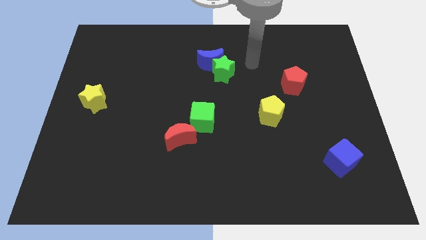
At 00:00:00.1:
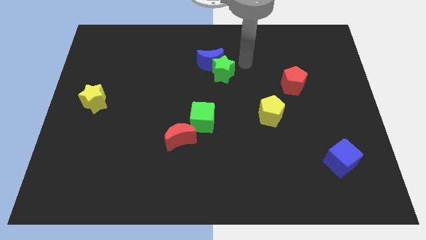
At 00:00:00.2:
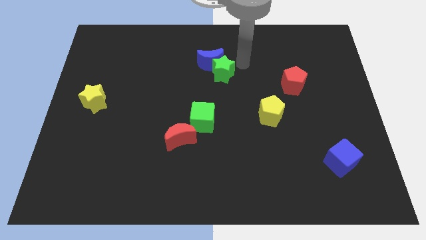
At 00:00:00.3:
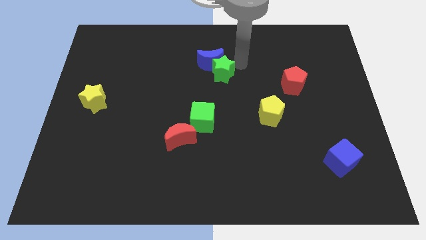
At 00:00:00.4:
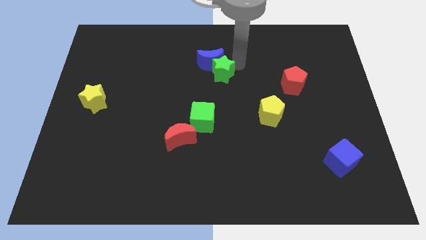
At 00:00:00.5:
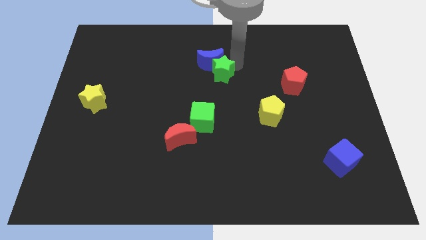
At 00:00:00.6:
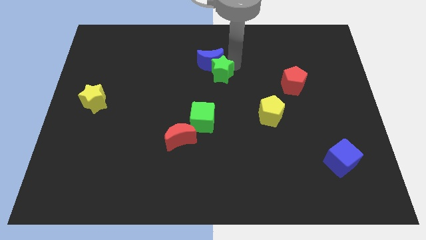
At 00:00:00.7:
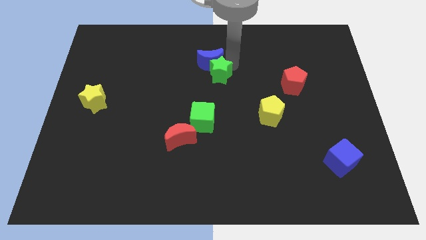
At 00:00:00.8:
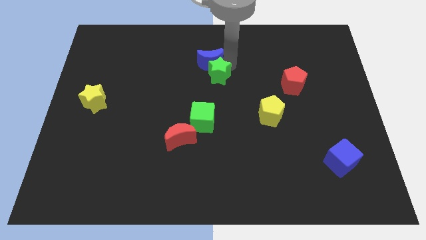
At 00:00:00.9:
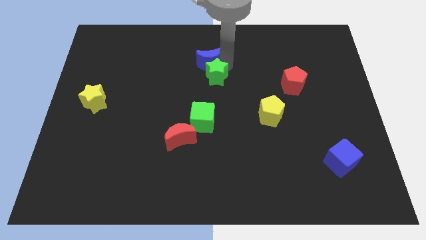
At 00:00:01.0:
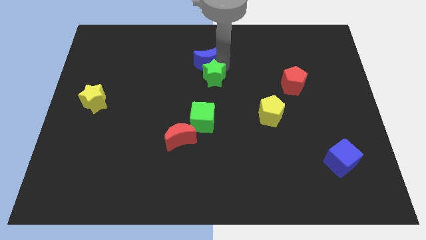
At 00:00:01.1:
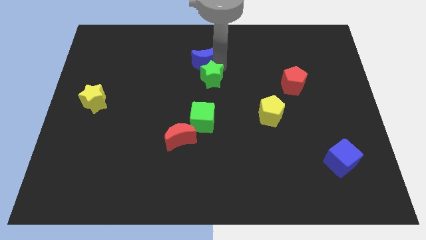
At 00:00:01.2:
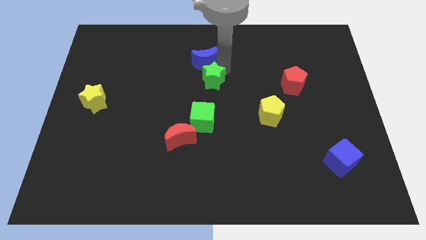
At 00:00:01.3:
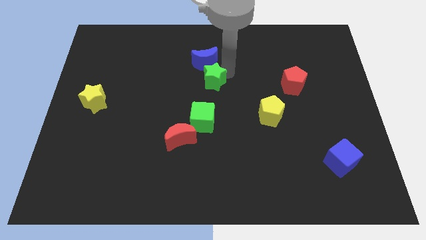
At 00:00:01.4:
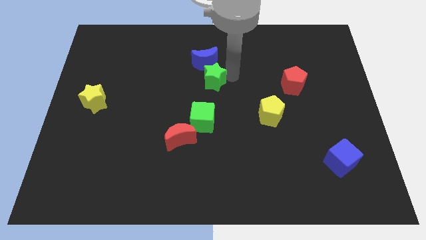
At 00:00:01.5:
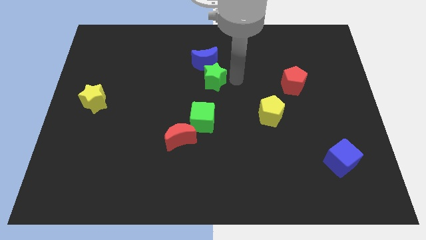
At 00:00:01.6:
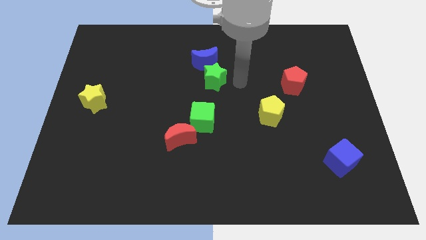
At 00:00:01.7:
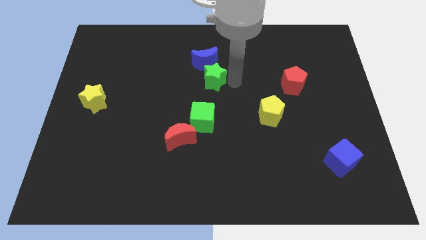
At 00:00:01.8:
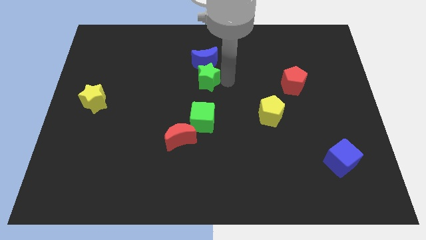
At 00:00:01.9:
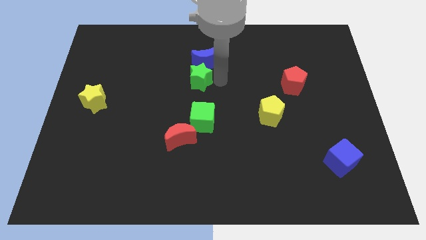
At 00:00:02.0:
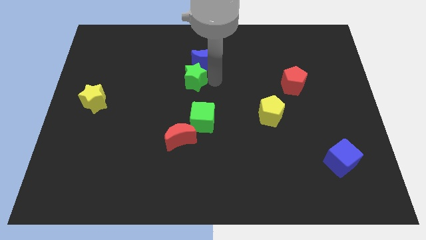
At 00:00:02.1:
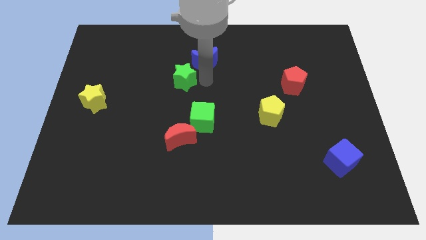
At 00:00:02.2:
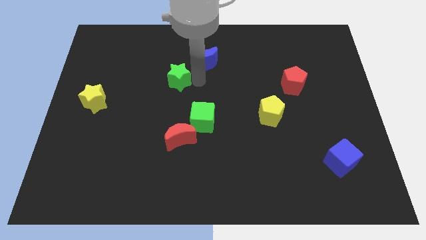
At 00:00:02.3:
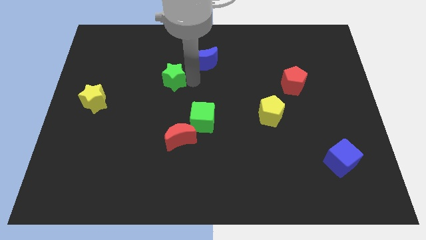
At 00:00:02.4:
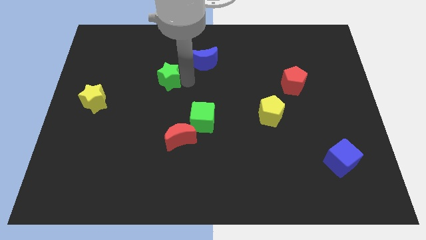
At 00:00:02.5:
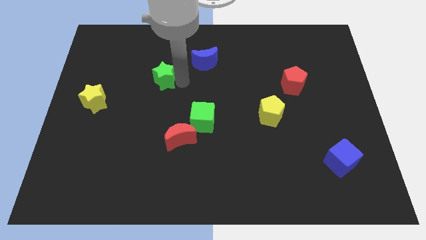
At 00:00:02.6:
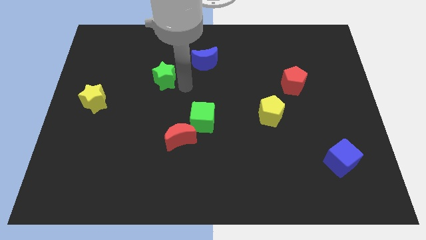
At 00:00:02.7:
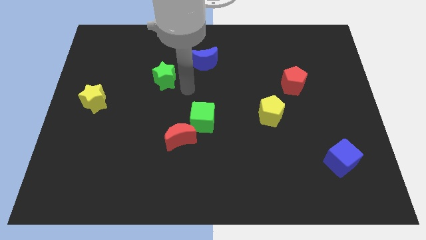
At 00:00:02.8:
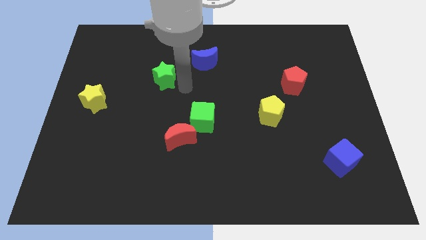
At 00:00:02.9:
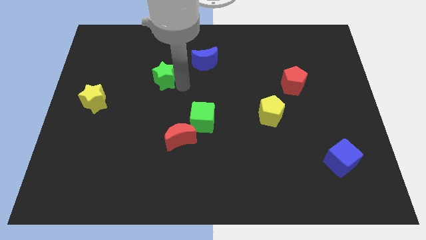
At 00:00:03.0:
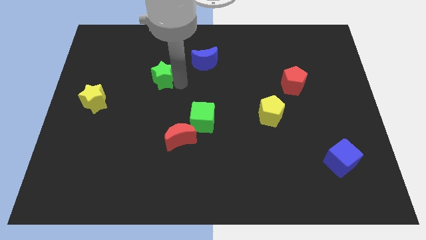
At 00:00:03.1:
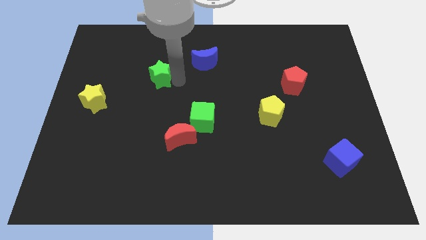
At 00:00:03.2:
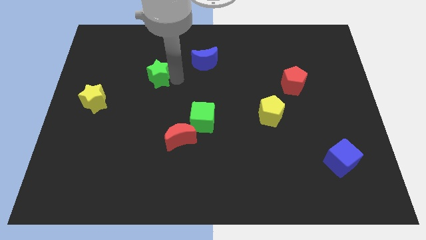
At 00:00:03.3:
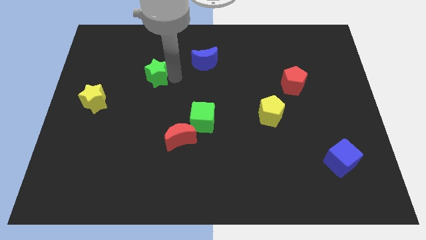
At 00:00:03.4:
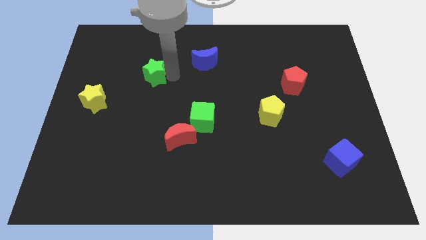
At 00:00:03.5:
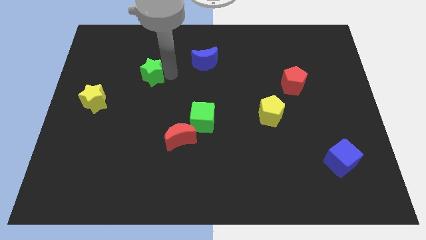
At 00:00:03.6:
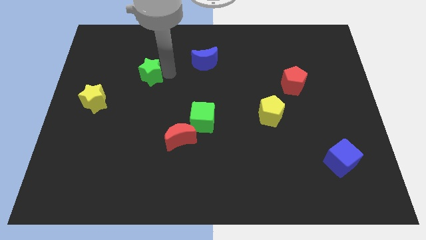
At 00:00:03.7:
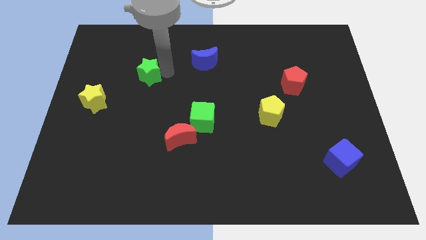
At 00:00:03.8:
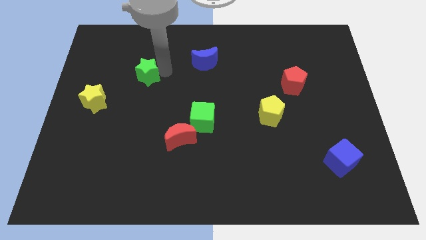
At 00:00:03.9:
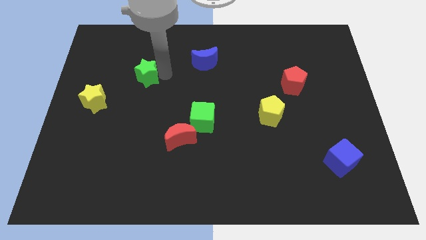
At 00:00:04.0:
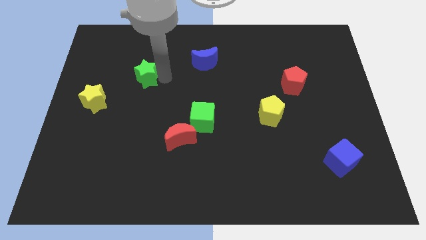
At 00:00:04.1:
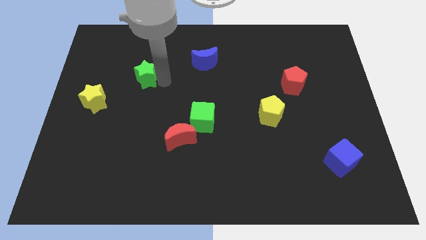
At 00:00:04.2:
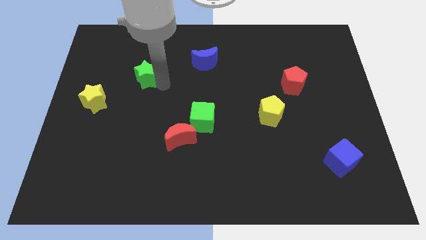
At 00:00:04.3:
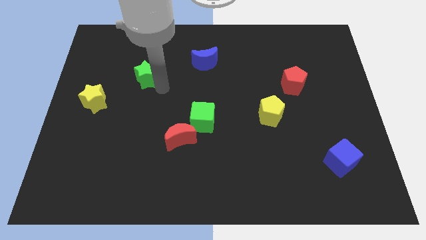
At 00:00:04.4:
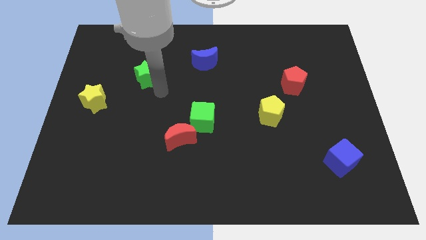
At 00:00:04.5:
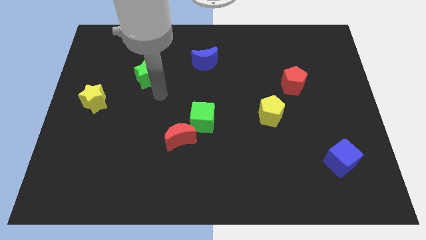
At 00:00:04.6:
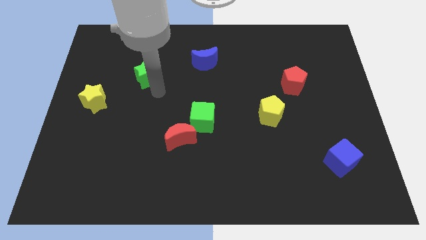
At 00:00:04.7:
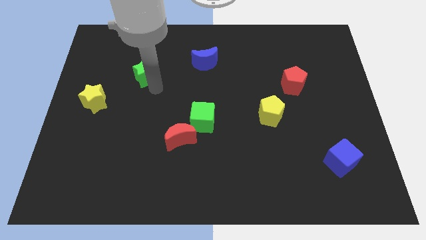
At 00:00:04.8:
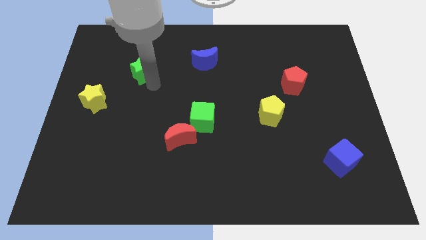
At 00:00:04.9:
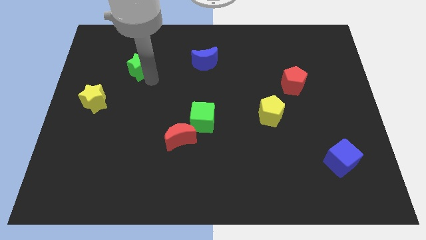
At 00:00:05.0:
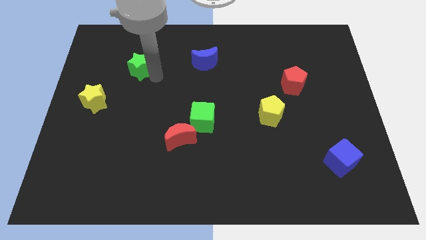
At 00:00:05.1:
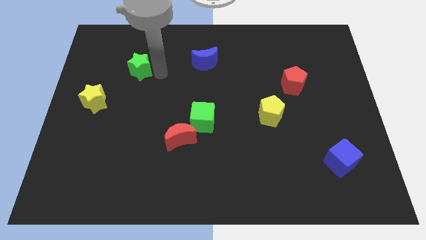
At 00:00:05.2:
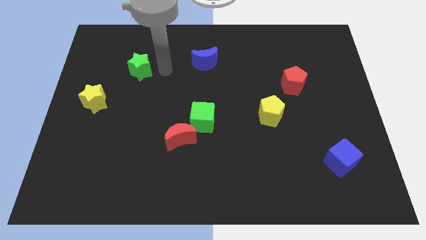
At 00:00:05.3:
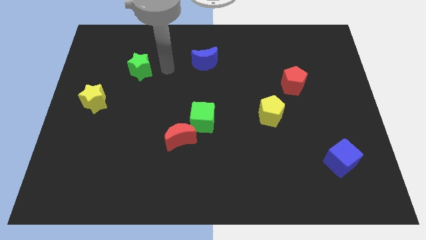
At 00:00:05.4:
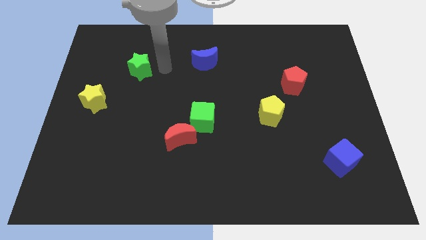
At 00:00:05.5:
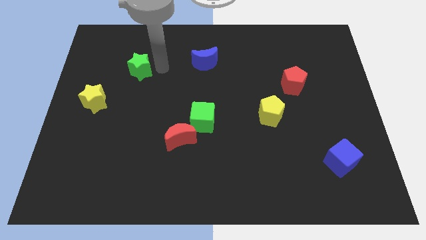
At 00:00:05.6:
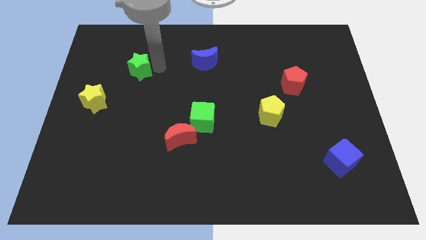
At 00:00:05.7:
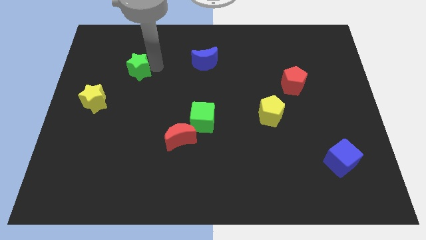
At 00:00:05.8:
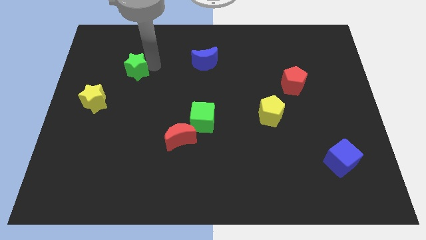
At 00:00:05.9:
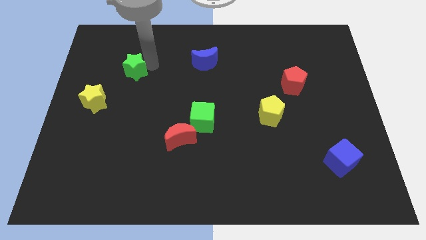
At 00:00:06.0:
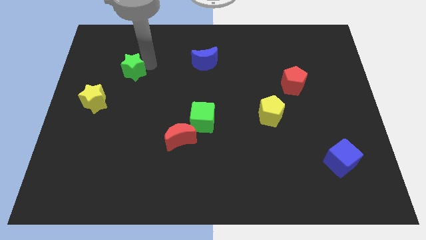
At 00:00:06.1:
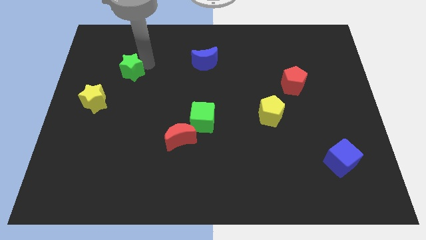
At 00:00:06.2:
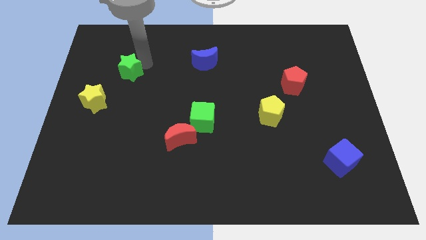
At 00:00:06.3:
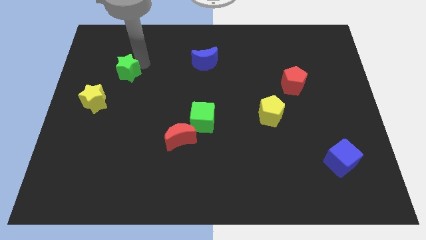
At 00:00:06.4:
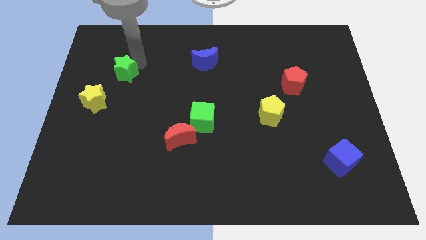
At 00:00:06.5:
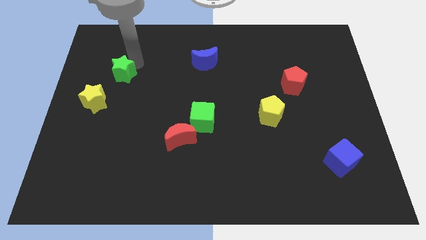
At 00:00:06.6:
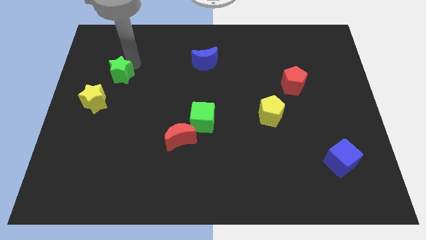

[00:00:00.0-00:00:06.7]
put the green star above the yellow star

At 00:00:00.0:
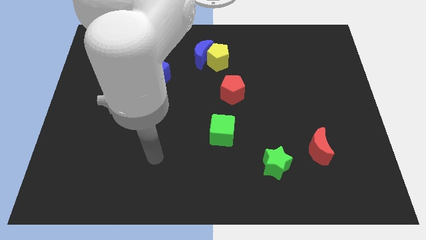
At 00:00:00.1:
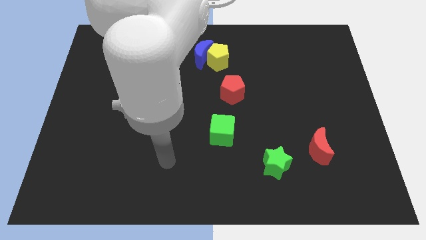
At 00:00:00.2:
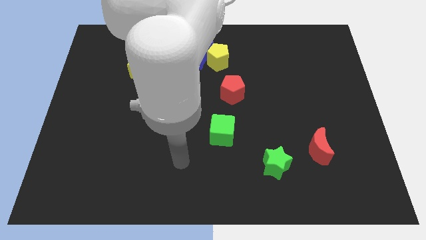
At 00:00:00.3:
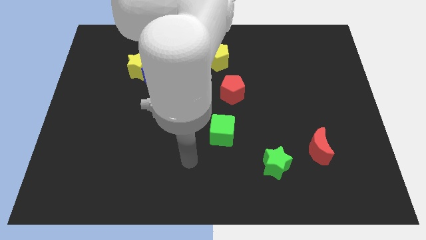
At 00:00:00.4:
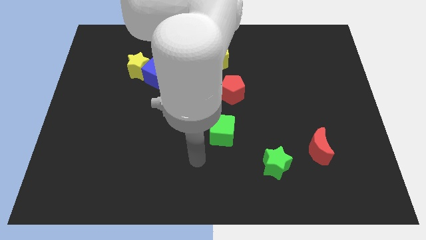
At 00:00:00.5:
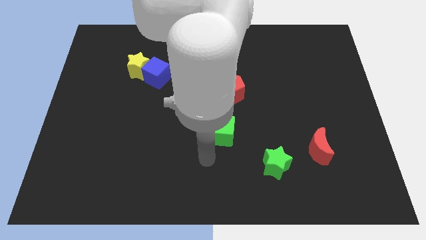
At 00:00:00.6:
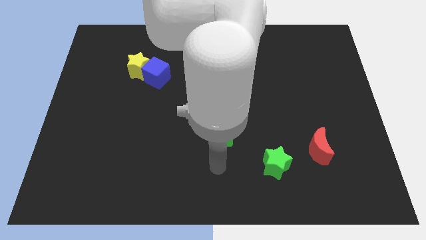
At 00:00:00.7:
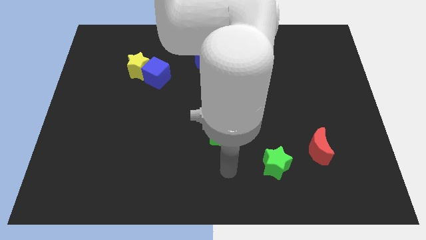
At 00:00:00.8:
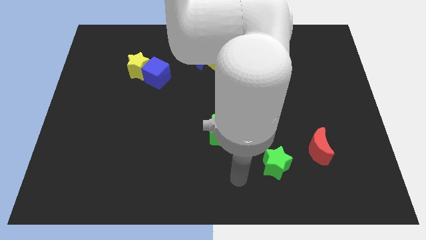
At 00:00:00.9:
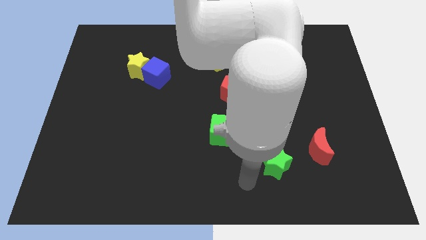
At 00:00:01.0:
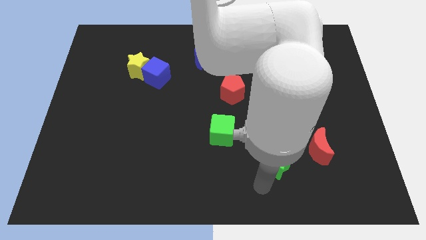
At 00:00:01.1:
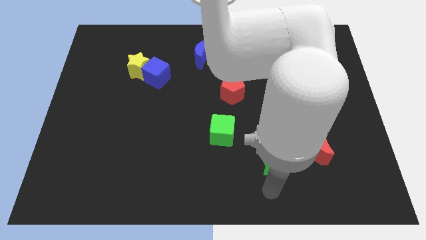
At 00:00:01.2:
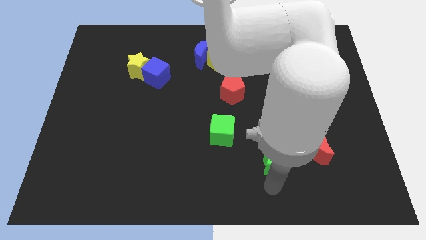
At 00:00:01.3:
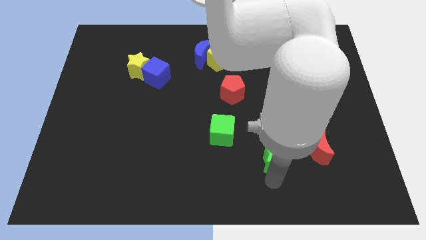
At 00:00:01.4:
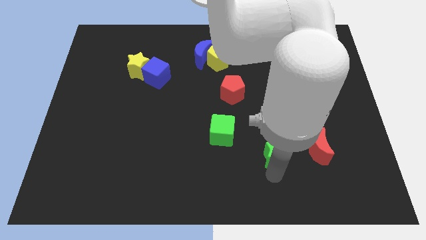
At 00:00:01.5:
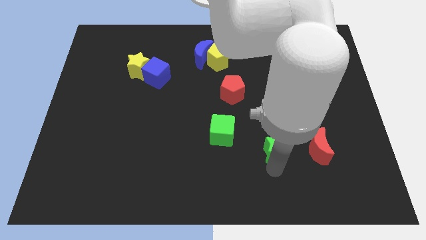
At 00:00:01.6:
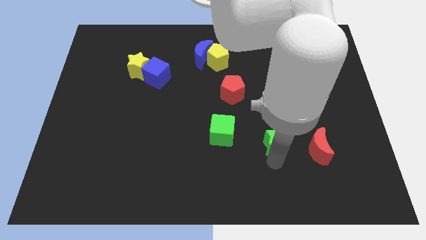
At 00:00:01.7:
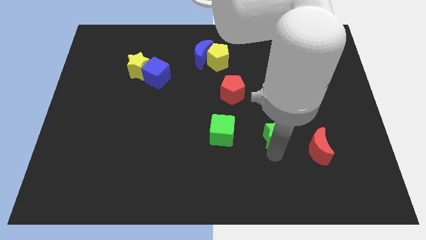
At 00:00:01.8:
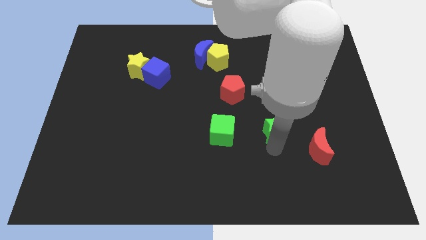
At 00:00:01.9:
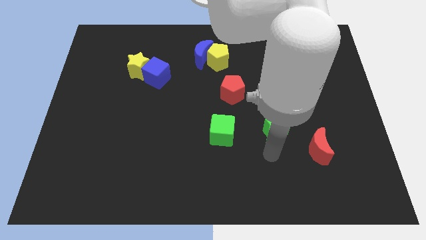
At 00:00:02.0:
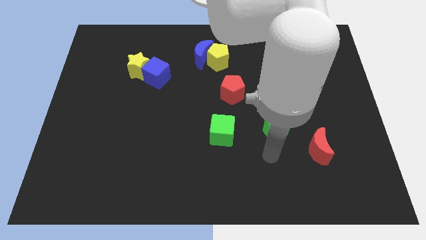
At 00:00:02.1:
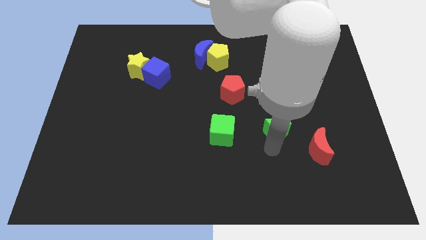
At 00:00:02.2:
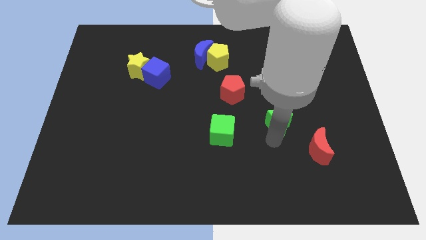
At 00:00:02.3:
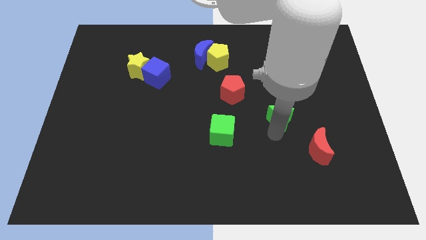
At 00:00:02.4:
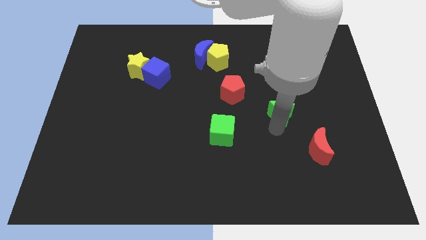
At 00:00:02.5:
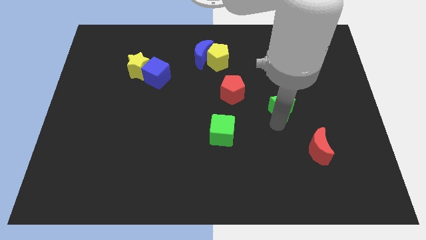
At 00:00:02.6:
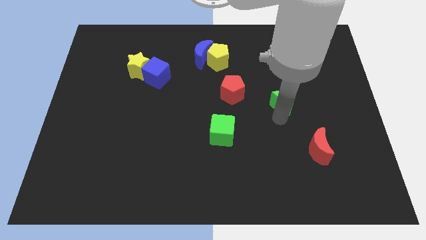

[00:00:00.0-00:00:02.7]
slide the green star right of the red pentagon
